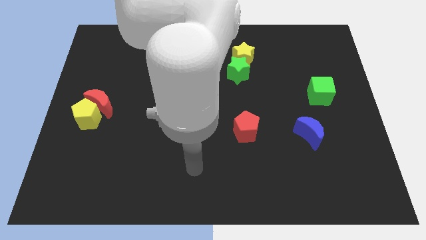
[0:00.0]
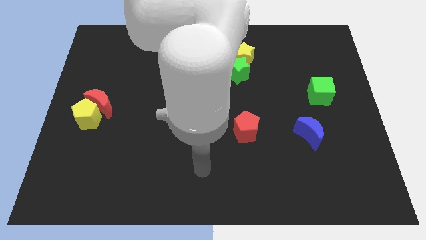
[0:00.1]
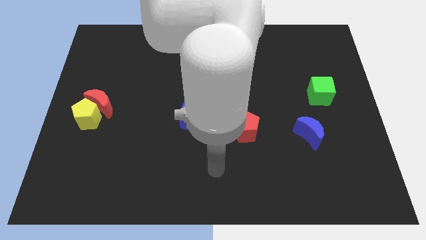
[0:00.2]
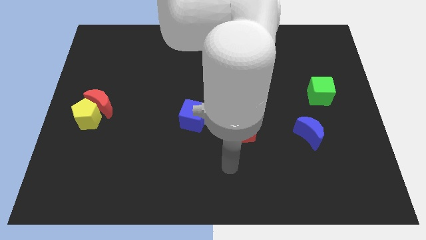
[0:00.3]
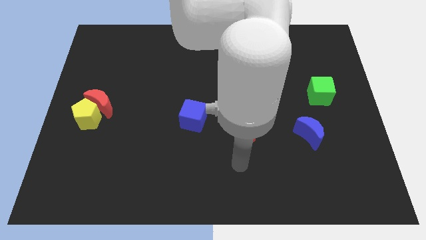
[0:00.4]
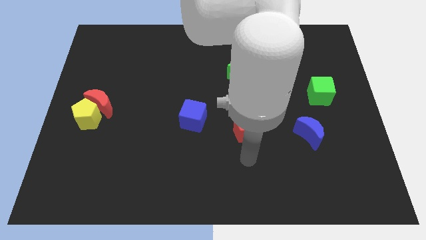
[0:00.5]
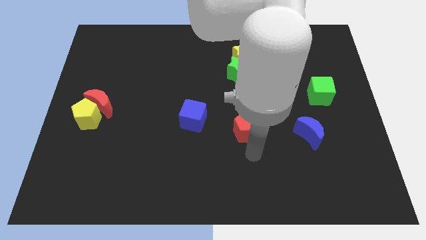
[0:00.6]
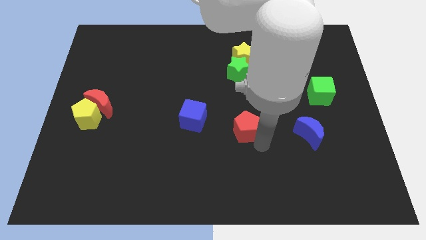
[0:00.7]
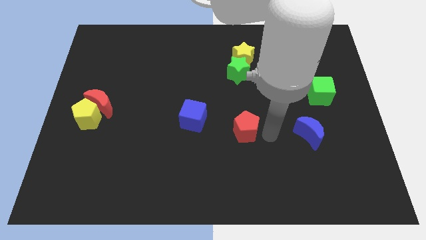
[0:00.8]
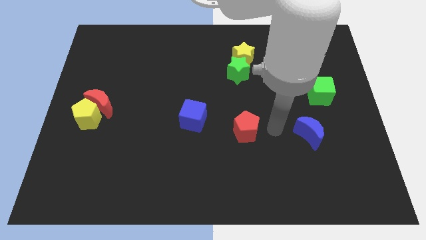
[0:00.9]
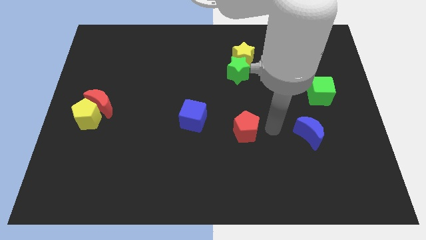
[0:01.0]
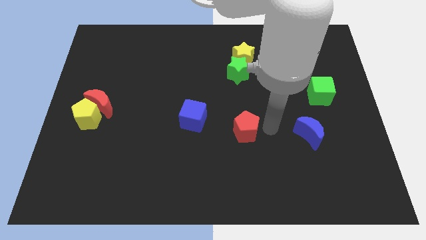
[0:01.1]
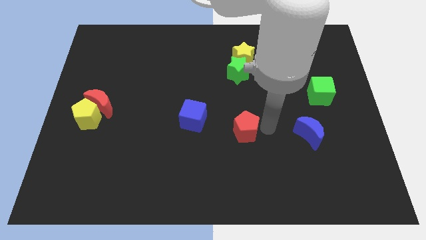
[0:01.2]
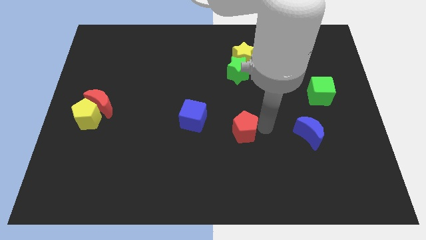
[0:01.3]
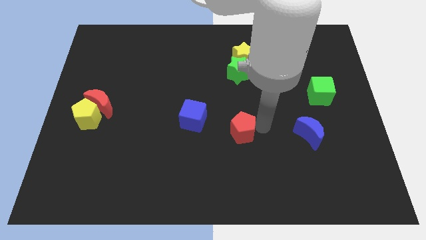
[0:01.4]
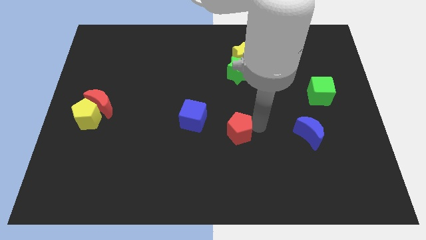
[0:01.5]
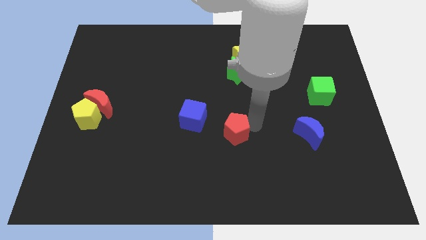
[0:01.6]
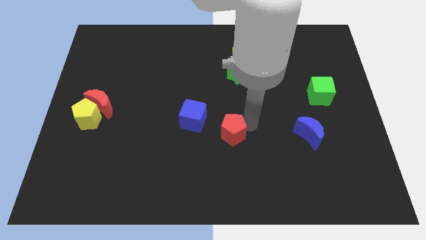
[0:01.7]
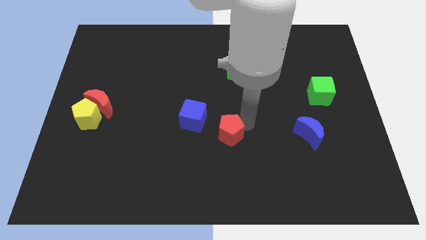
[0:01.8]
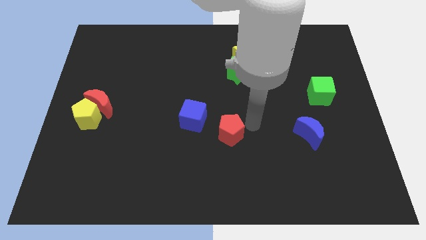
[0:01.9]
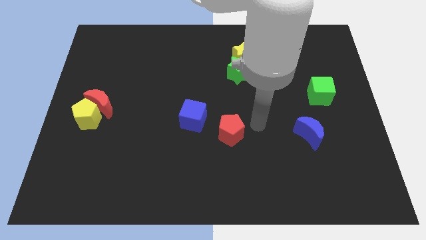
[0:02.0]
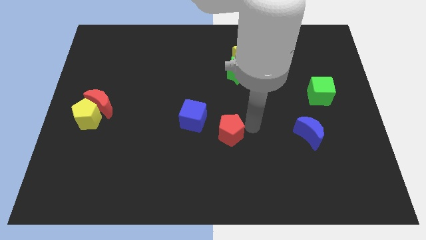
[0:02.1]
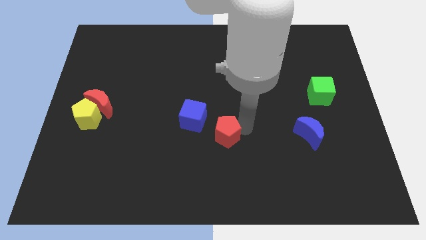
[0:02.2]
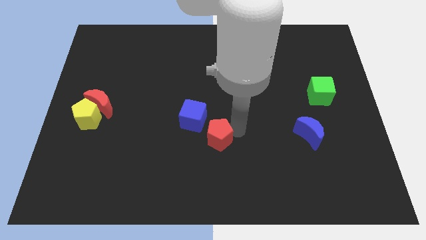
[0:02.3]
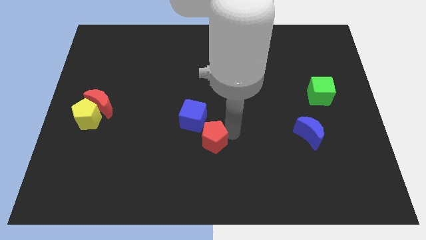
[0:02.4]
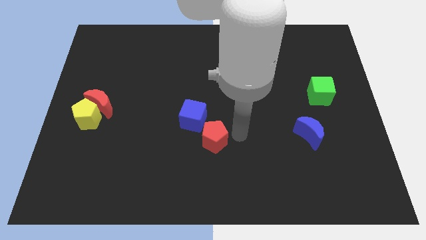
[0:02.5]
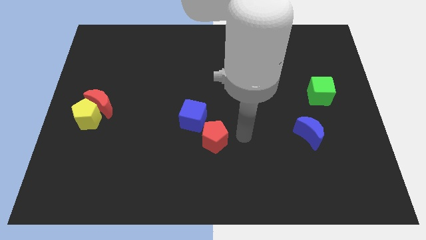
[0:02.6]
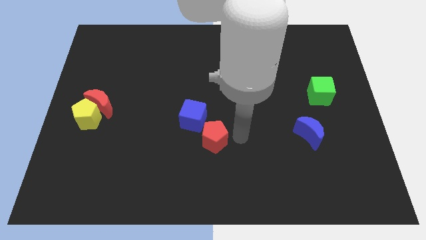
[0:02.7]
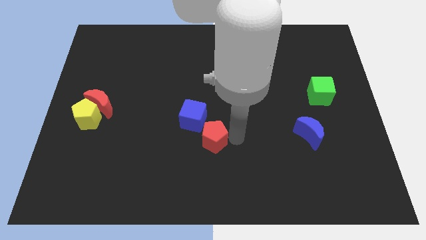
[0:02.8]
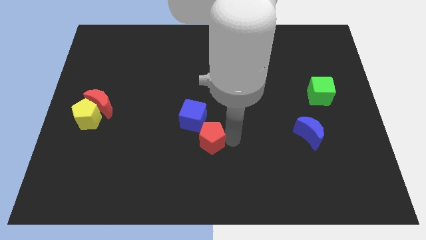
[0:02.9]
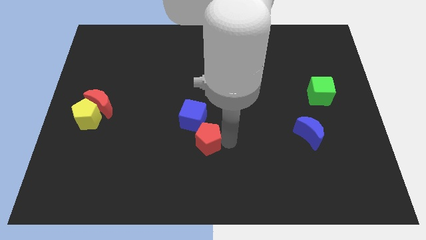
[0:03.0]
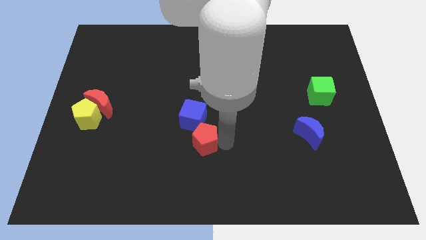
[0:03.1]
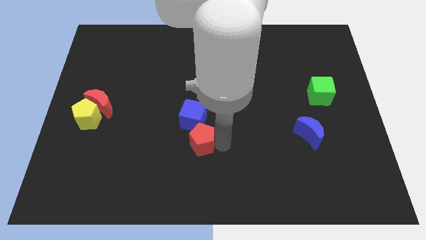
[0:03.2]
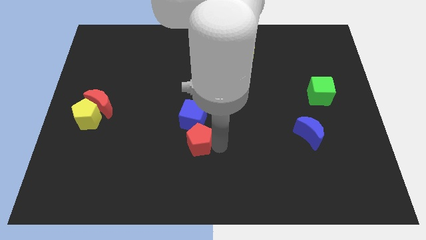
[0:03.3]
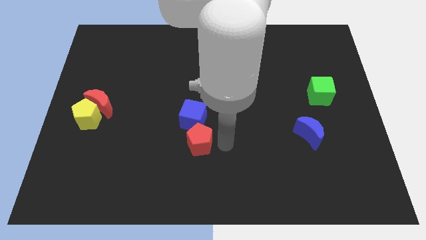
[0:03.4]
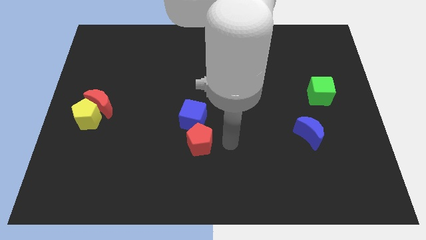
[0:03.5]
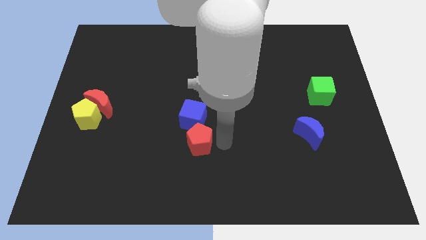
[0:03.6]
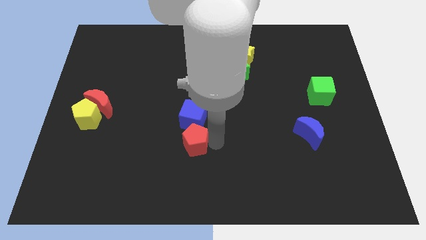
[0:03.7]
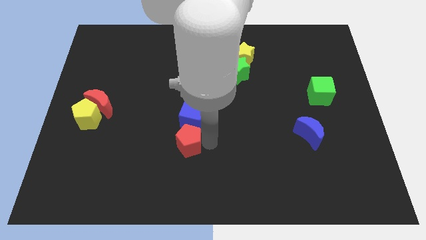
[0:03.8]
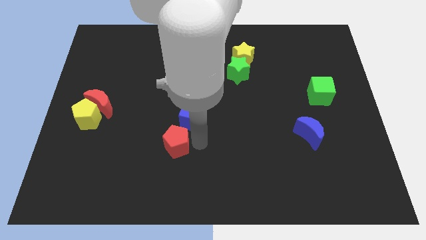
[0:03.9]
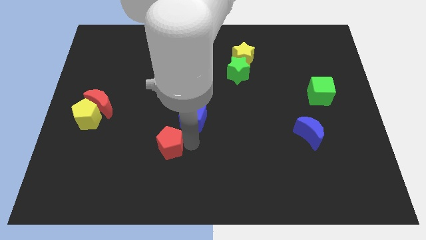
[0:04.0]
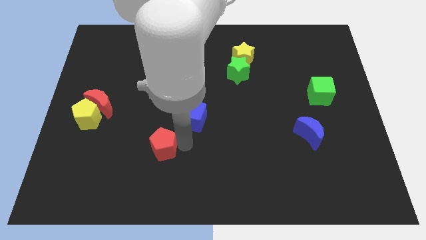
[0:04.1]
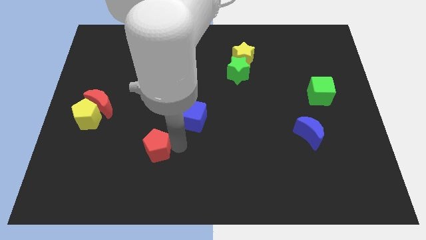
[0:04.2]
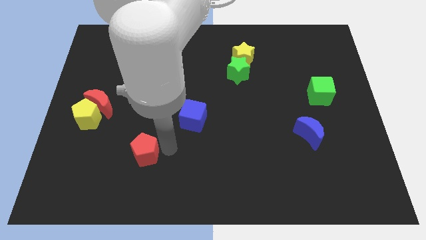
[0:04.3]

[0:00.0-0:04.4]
push the red pentagon left

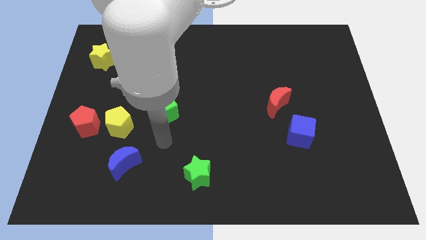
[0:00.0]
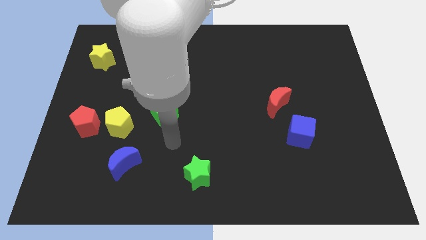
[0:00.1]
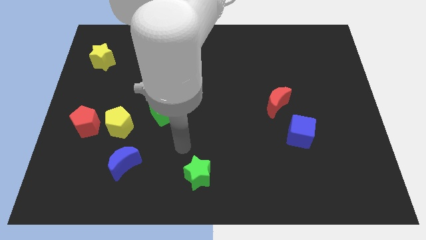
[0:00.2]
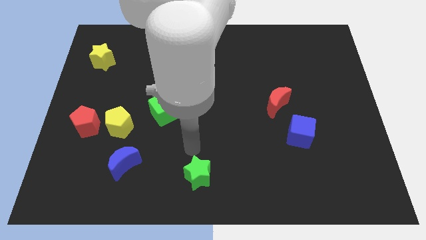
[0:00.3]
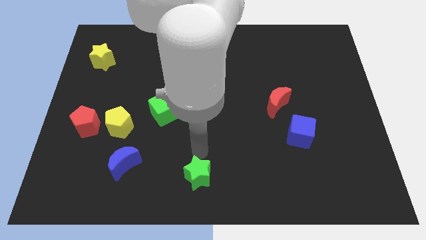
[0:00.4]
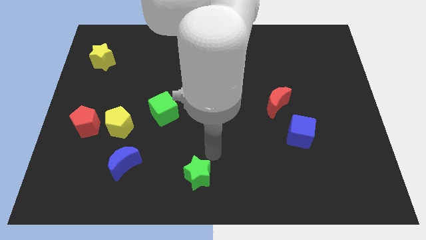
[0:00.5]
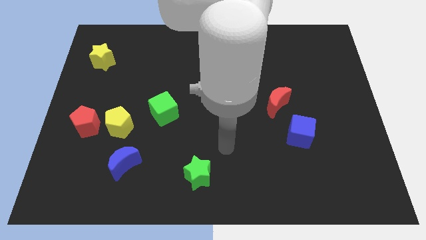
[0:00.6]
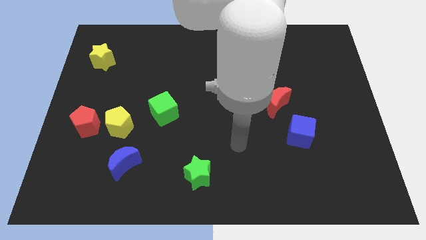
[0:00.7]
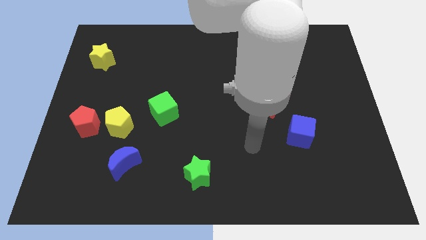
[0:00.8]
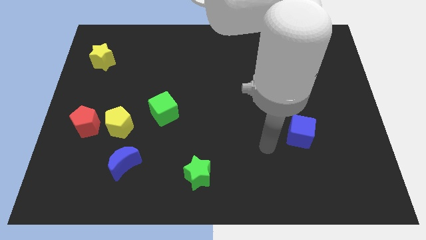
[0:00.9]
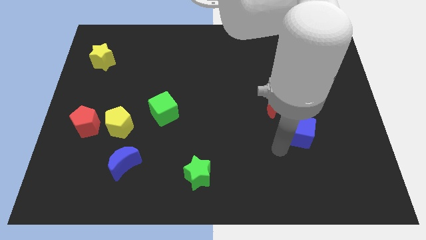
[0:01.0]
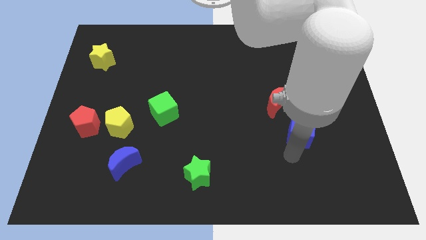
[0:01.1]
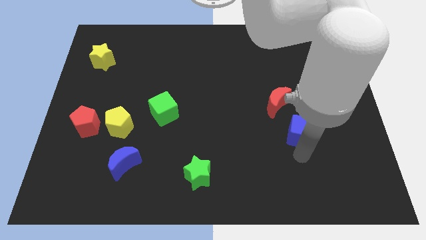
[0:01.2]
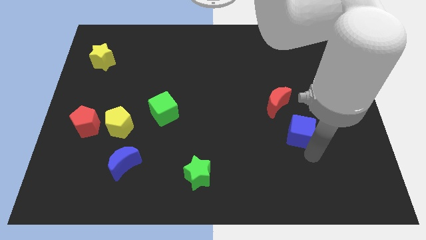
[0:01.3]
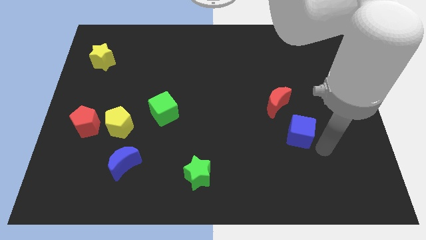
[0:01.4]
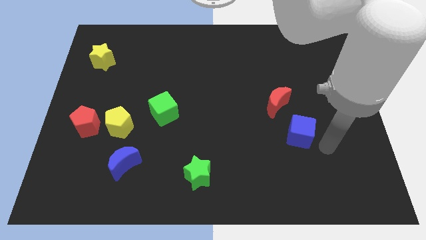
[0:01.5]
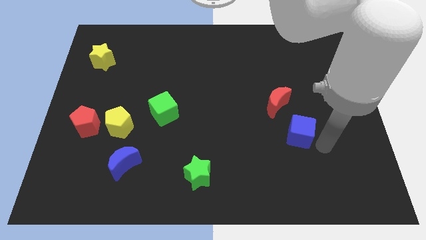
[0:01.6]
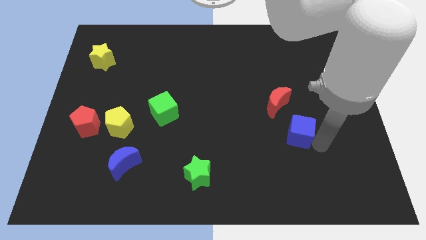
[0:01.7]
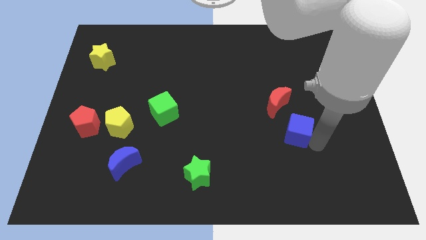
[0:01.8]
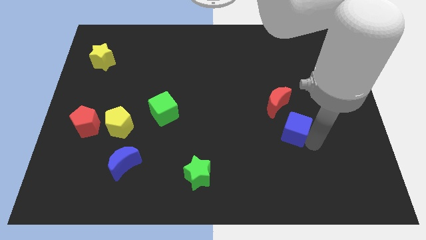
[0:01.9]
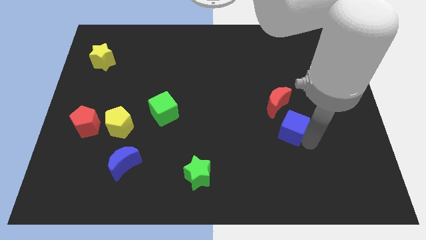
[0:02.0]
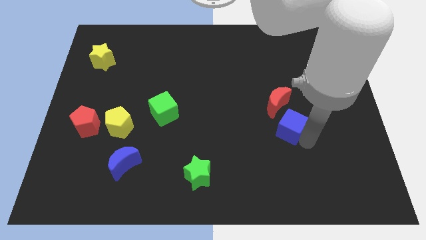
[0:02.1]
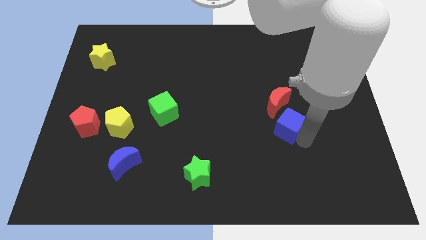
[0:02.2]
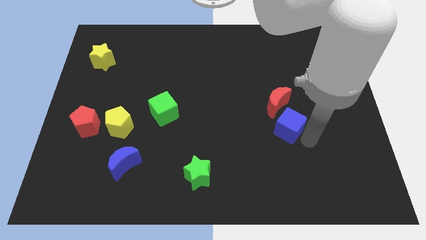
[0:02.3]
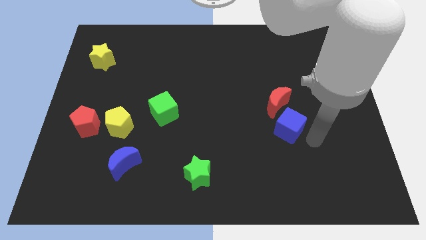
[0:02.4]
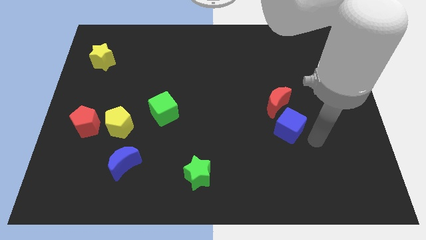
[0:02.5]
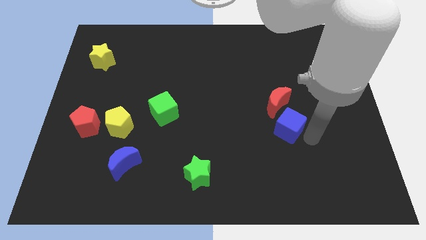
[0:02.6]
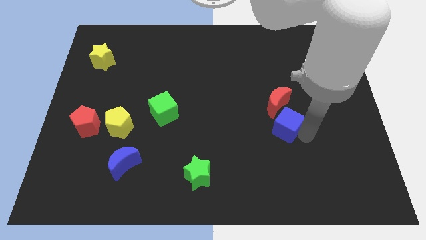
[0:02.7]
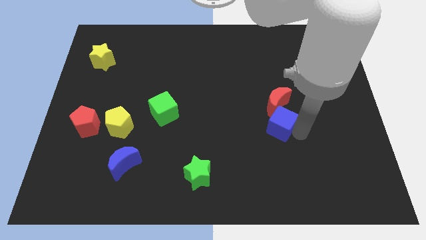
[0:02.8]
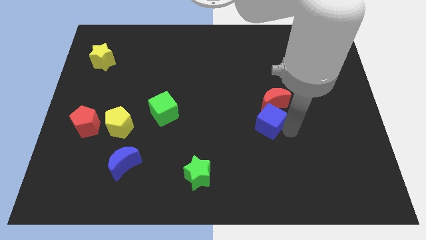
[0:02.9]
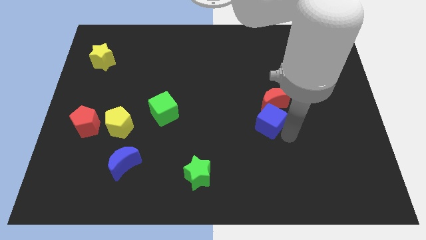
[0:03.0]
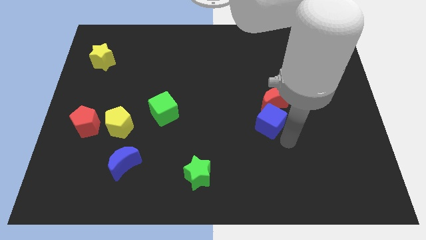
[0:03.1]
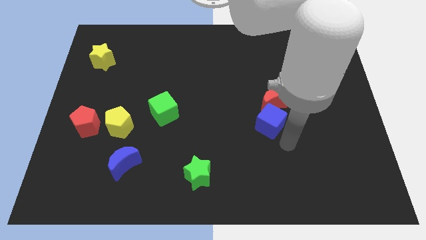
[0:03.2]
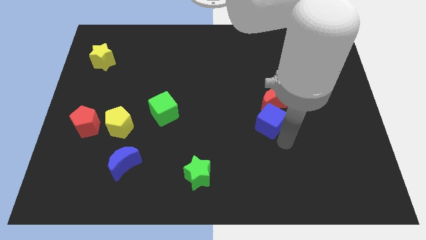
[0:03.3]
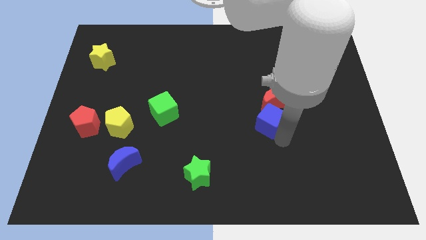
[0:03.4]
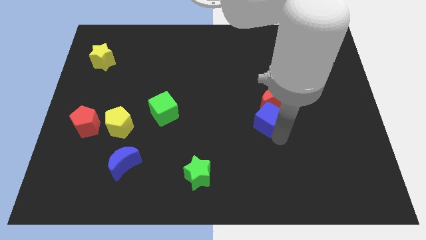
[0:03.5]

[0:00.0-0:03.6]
slightly move the blue cube diagonally up and to the left
